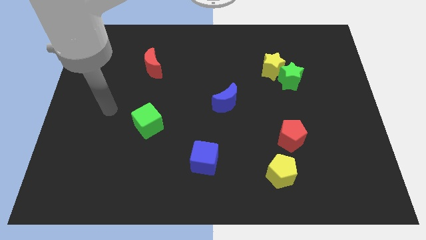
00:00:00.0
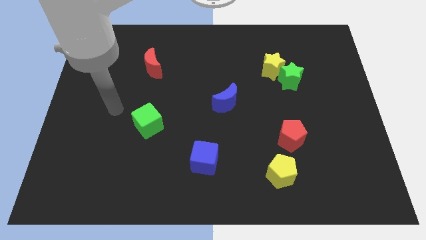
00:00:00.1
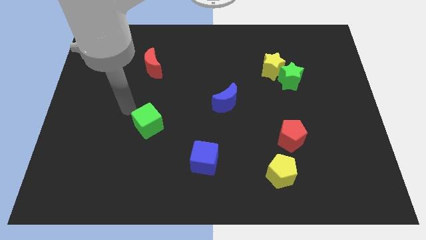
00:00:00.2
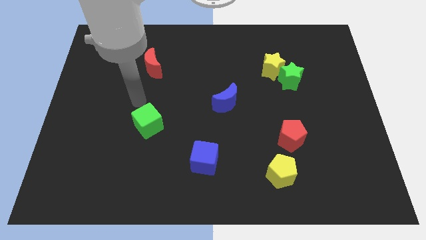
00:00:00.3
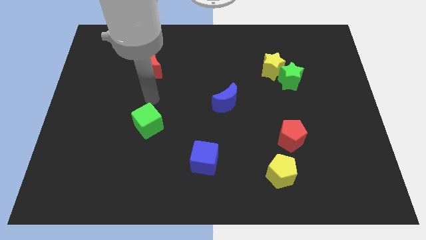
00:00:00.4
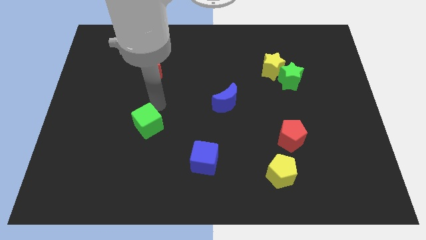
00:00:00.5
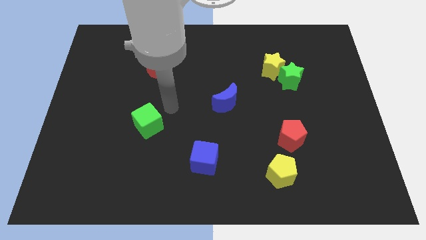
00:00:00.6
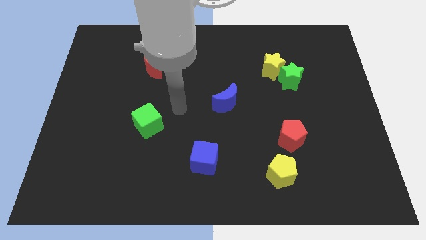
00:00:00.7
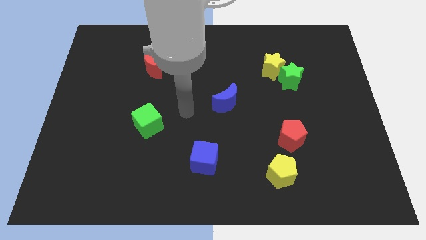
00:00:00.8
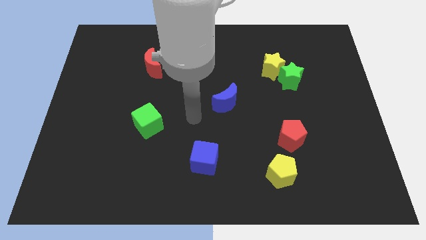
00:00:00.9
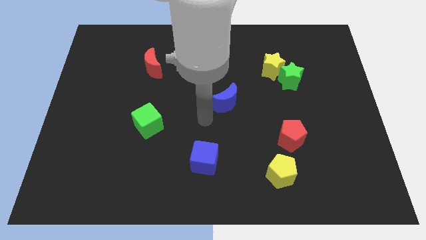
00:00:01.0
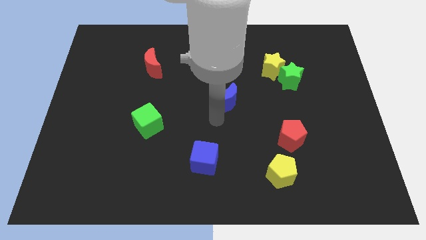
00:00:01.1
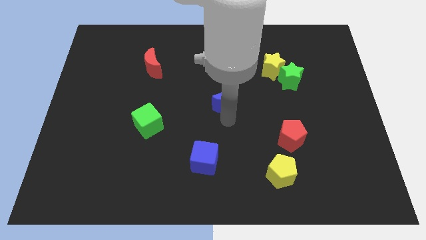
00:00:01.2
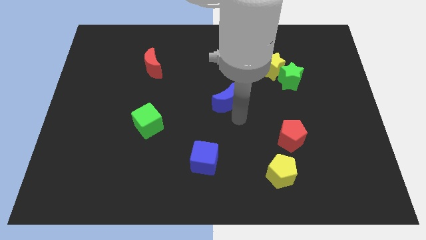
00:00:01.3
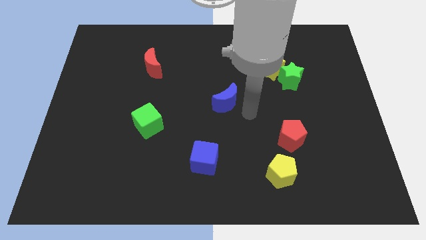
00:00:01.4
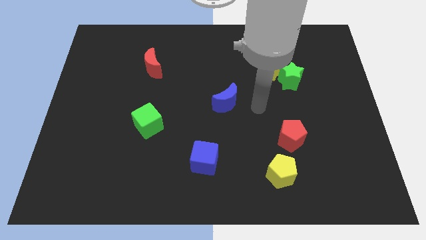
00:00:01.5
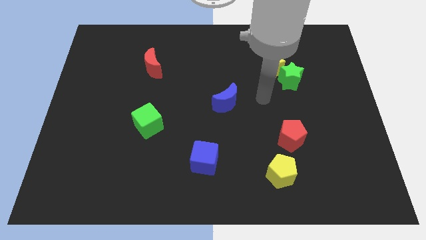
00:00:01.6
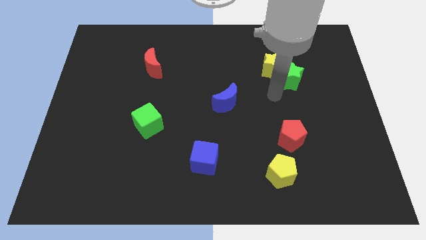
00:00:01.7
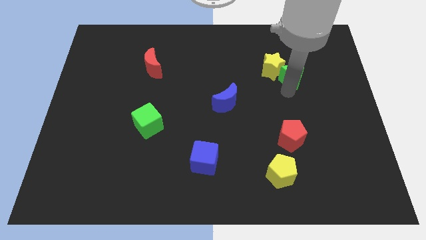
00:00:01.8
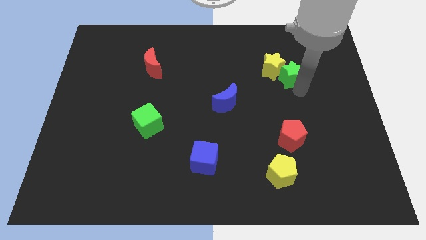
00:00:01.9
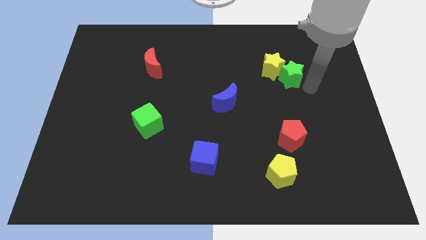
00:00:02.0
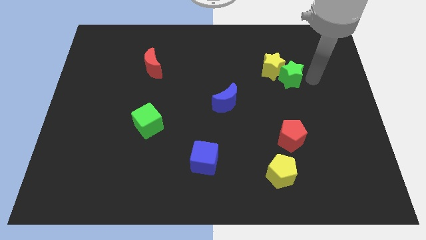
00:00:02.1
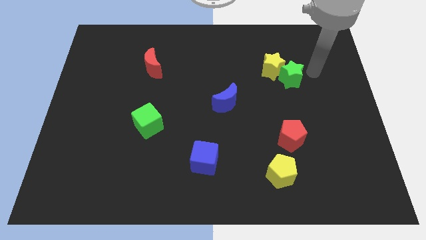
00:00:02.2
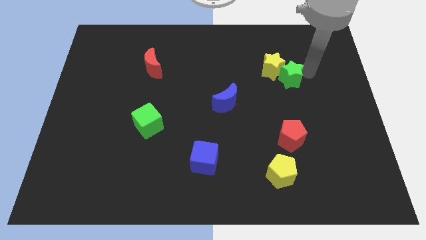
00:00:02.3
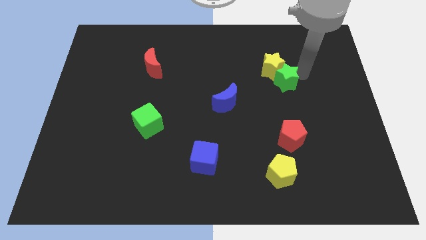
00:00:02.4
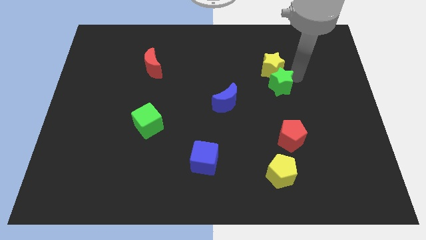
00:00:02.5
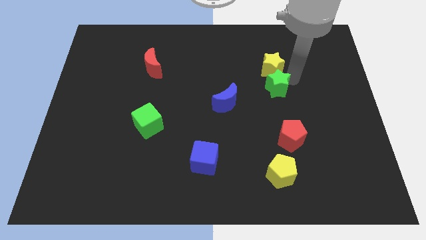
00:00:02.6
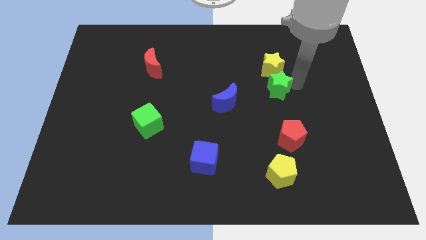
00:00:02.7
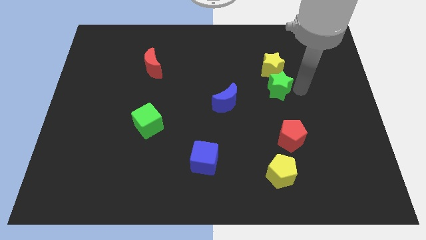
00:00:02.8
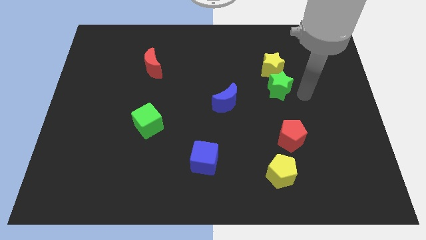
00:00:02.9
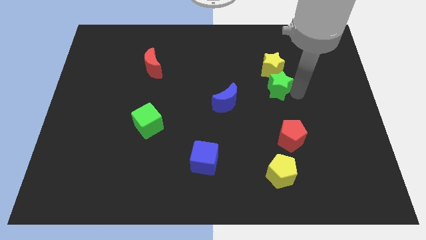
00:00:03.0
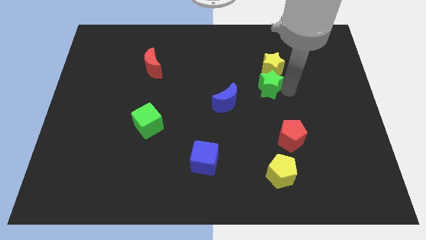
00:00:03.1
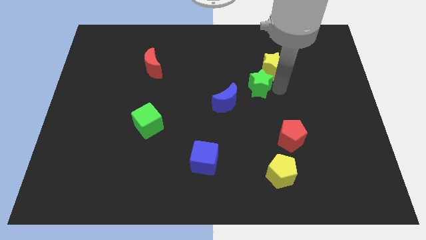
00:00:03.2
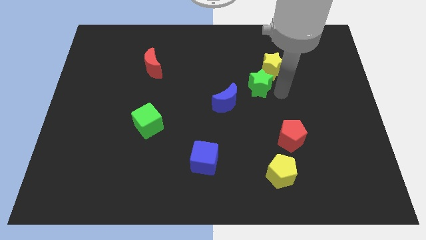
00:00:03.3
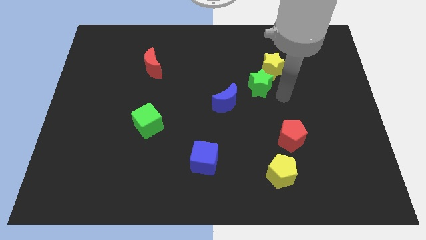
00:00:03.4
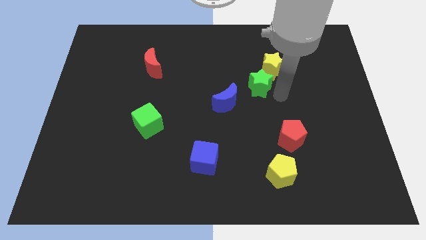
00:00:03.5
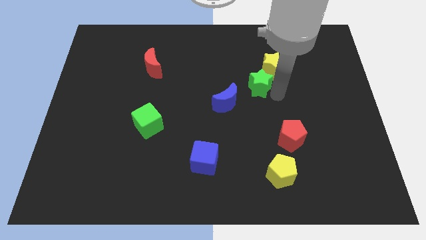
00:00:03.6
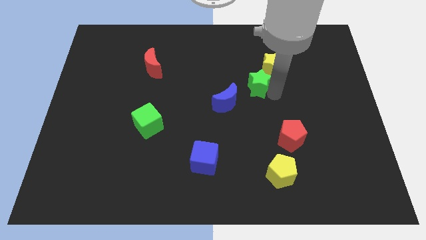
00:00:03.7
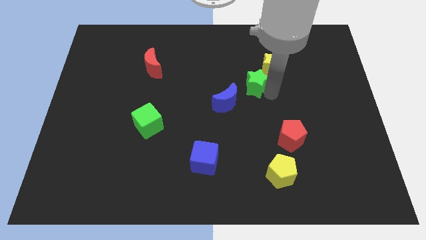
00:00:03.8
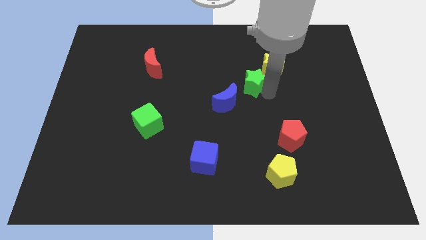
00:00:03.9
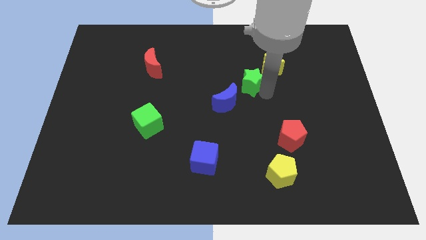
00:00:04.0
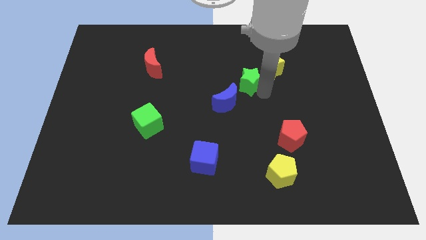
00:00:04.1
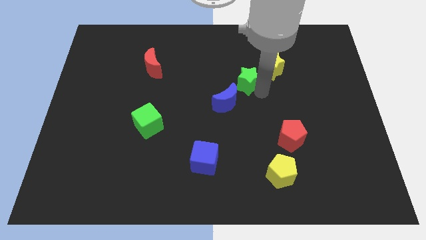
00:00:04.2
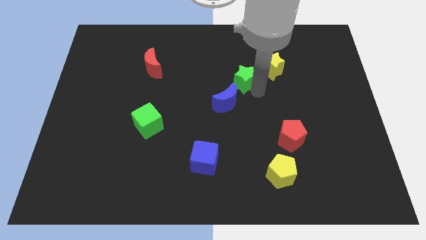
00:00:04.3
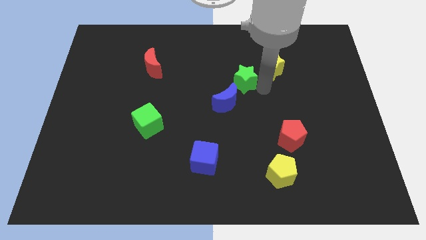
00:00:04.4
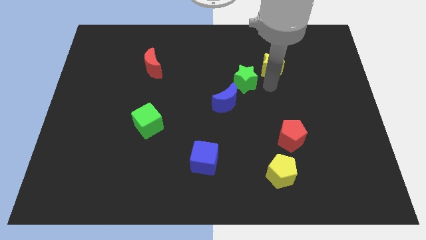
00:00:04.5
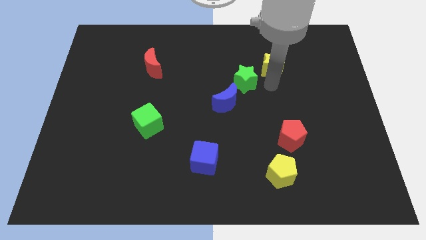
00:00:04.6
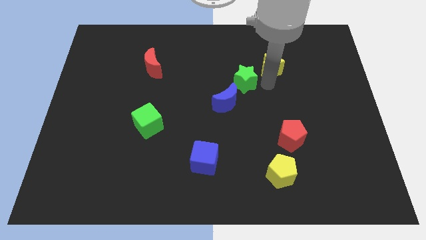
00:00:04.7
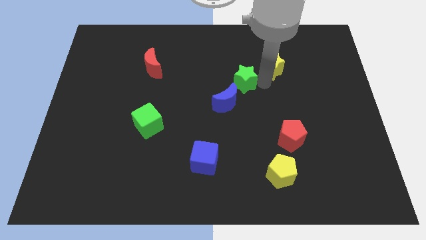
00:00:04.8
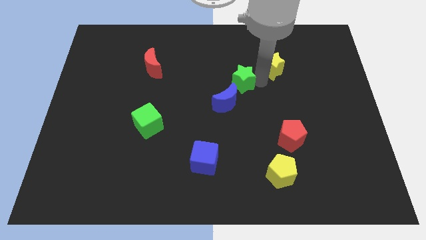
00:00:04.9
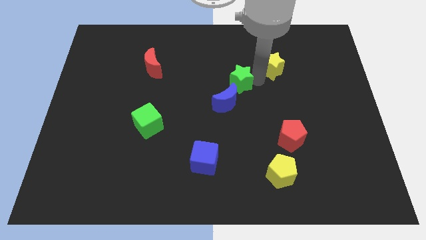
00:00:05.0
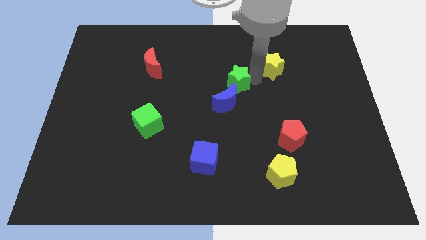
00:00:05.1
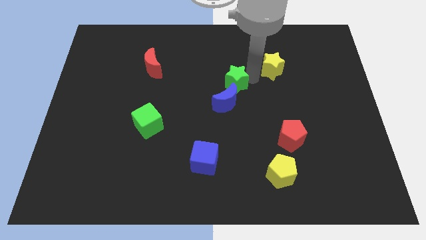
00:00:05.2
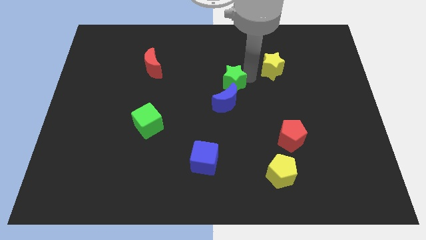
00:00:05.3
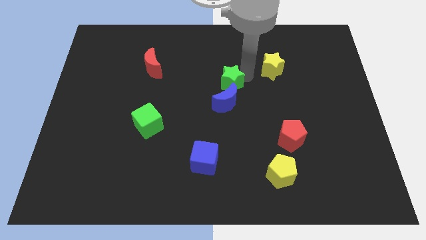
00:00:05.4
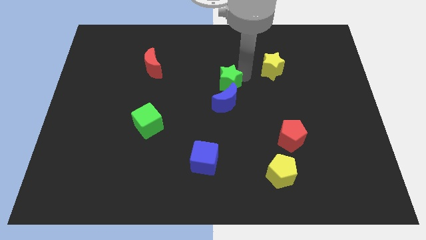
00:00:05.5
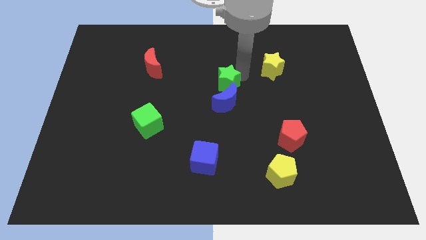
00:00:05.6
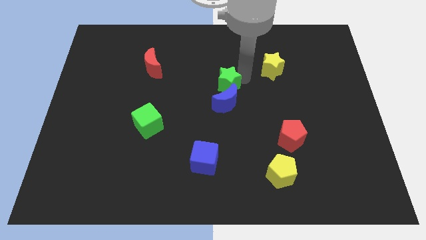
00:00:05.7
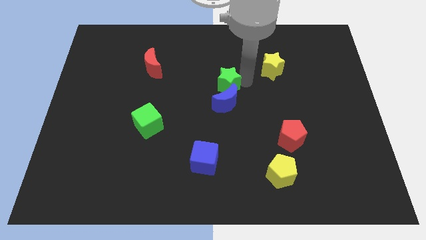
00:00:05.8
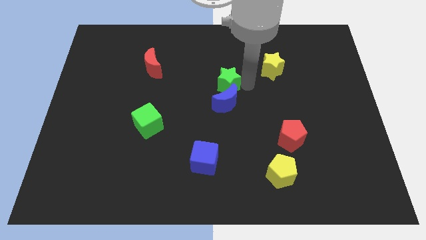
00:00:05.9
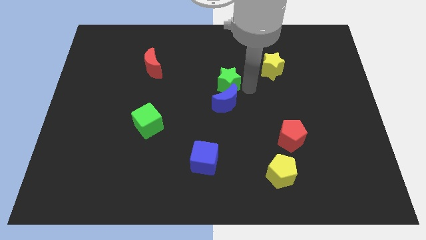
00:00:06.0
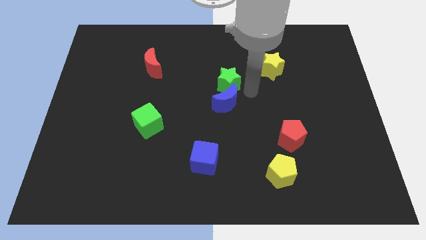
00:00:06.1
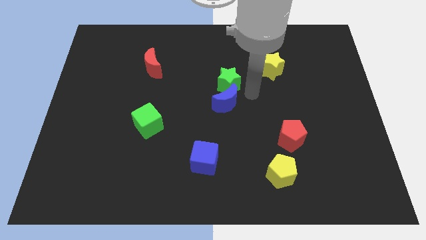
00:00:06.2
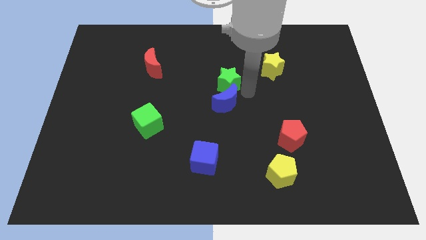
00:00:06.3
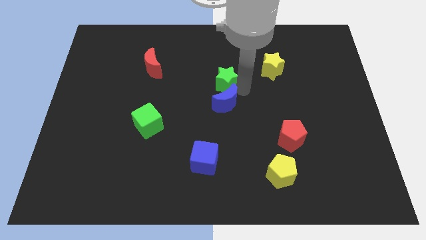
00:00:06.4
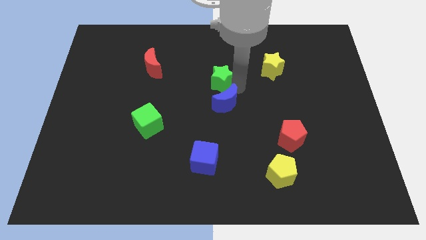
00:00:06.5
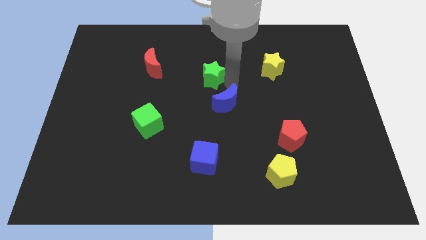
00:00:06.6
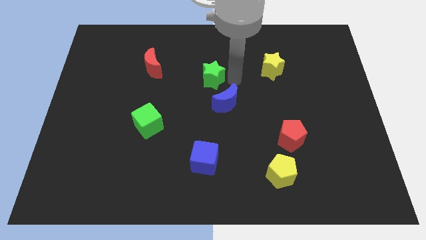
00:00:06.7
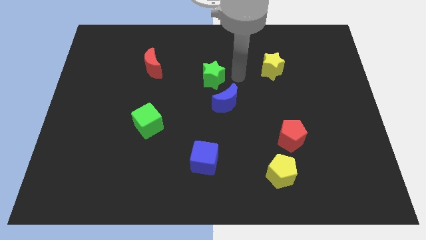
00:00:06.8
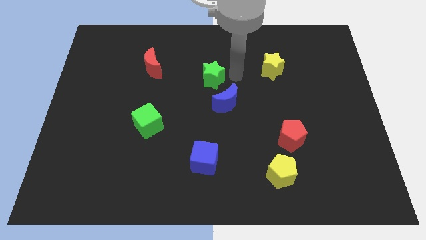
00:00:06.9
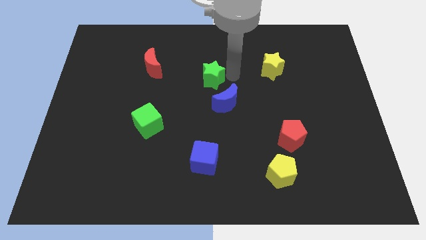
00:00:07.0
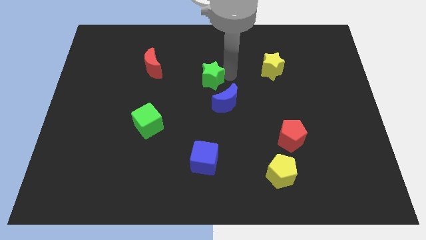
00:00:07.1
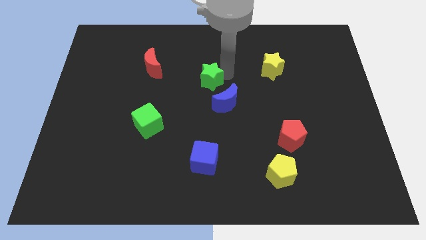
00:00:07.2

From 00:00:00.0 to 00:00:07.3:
slide the green star left

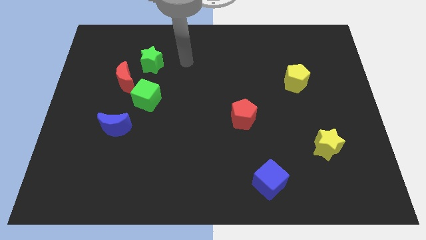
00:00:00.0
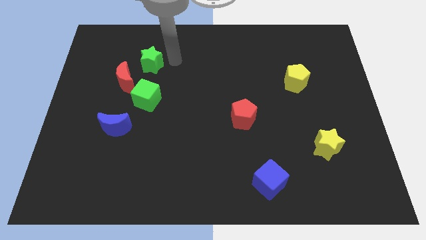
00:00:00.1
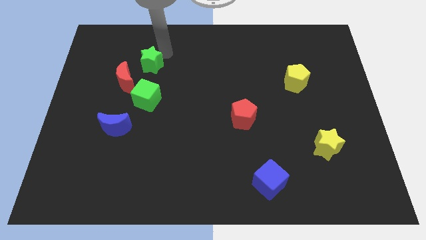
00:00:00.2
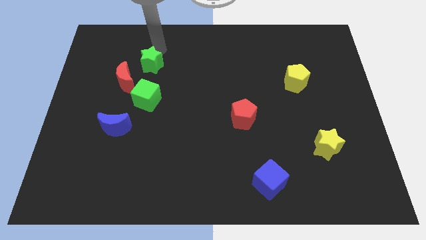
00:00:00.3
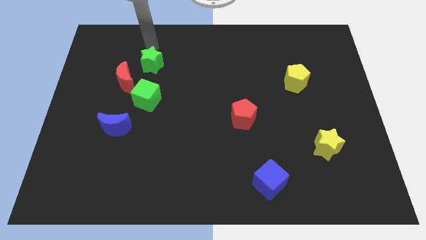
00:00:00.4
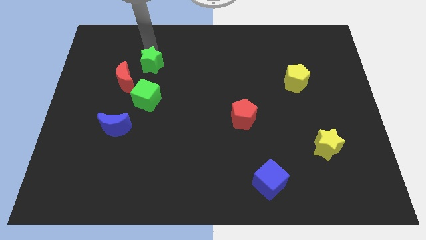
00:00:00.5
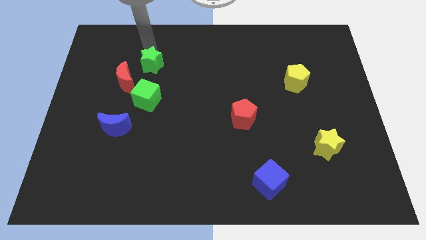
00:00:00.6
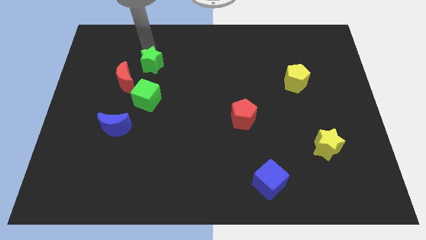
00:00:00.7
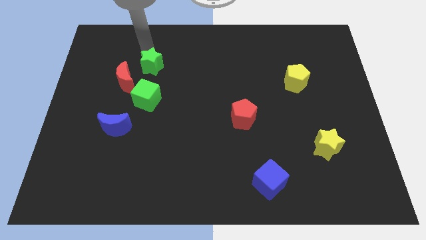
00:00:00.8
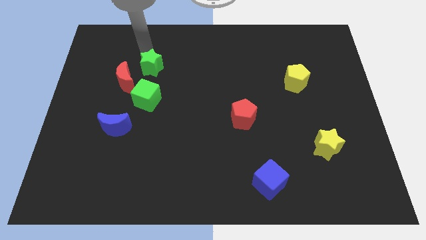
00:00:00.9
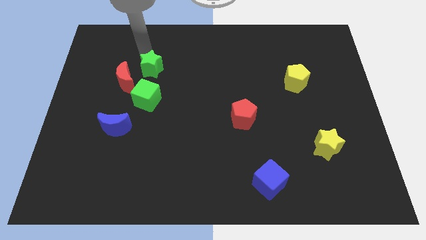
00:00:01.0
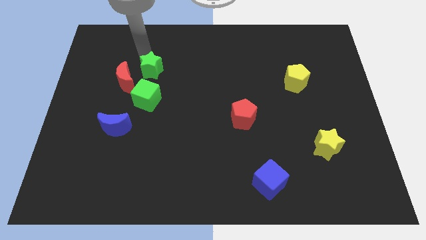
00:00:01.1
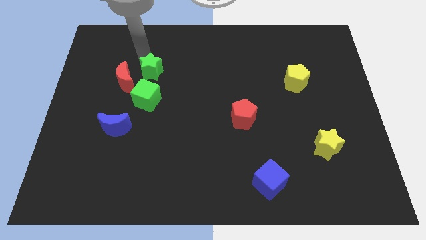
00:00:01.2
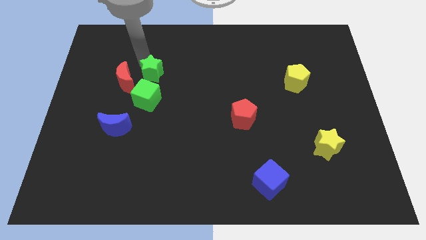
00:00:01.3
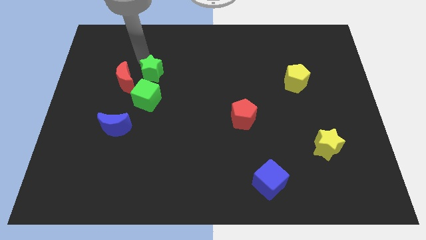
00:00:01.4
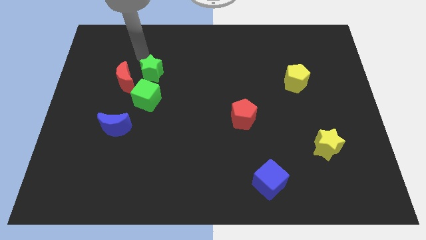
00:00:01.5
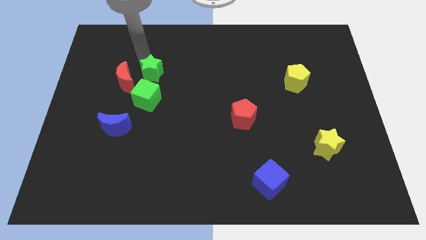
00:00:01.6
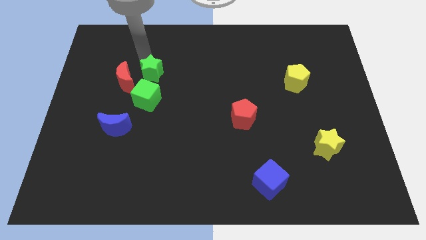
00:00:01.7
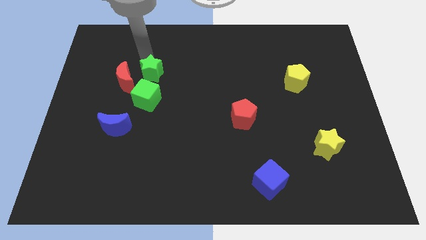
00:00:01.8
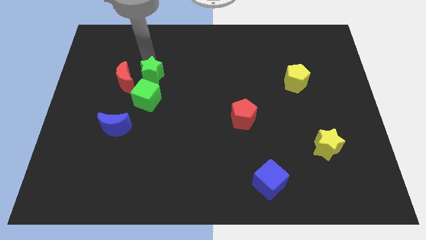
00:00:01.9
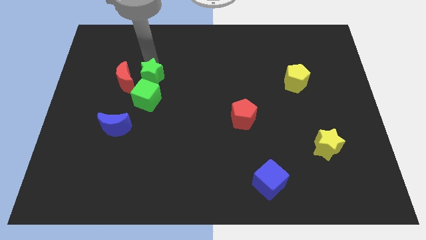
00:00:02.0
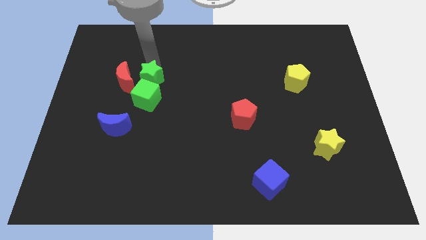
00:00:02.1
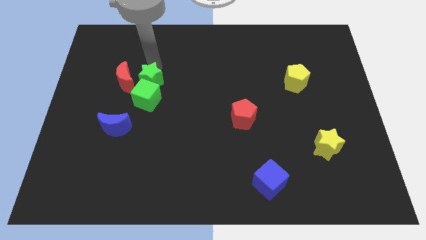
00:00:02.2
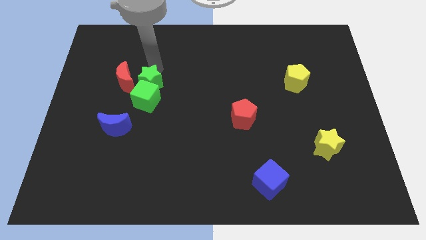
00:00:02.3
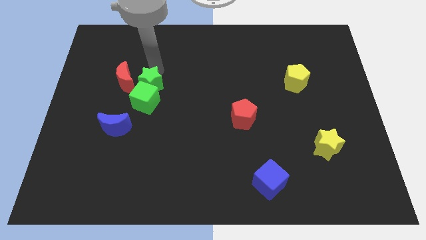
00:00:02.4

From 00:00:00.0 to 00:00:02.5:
move the green star down a bit
